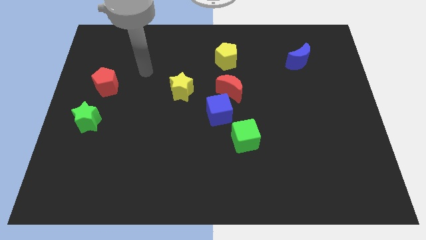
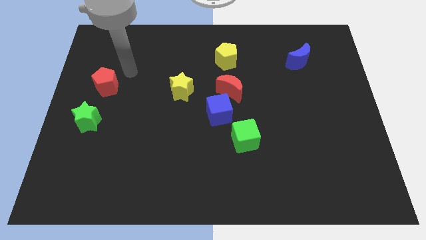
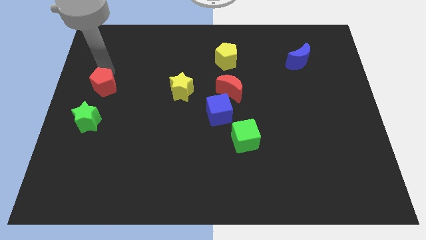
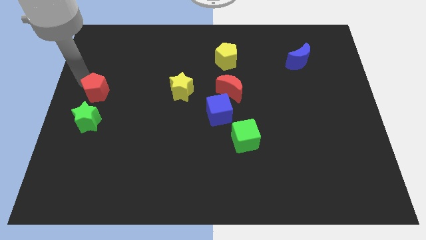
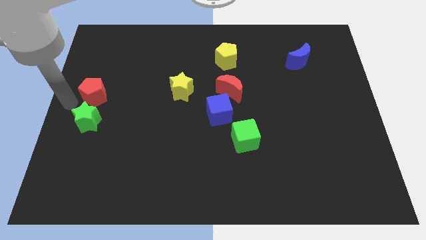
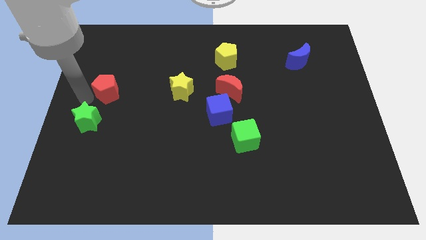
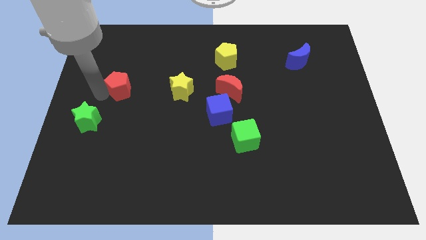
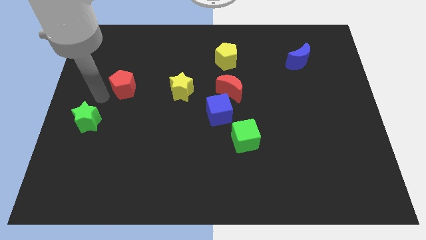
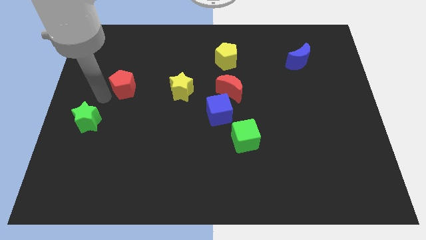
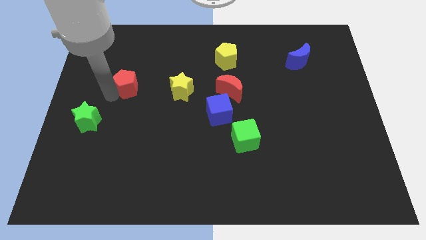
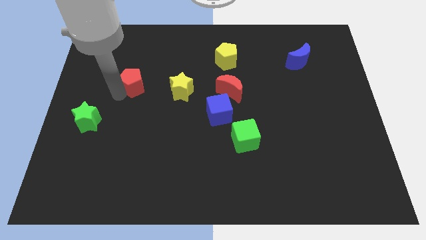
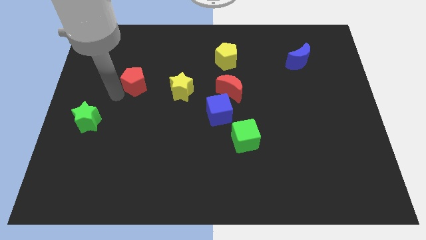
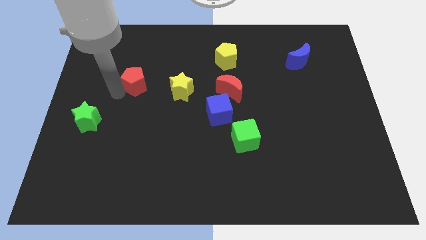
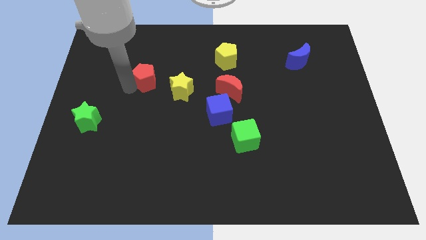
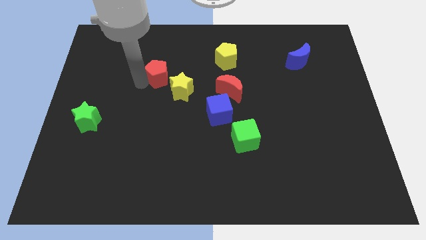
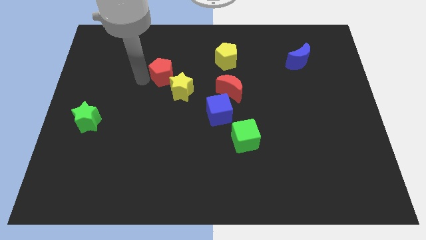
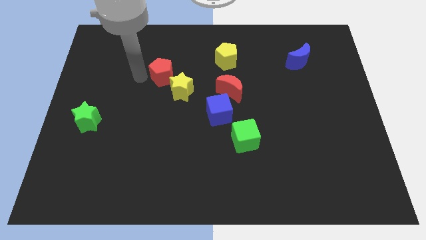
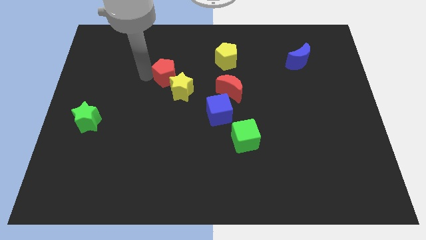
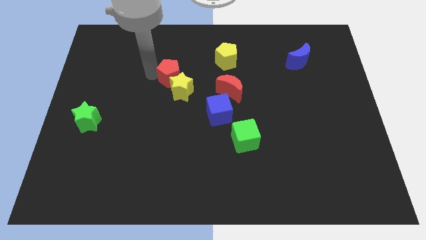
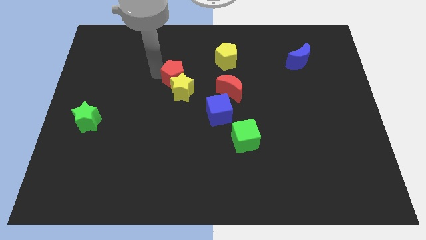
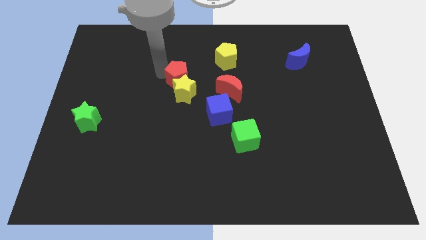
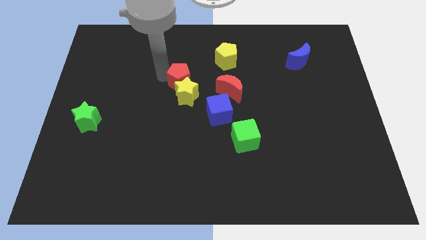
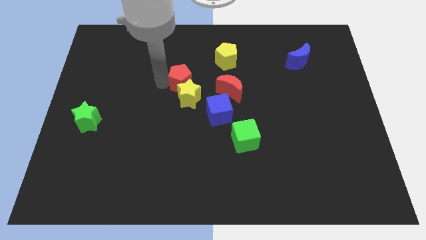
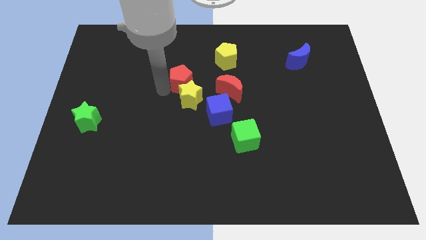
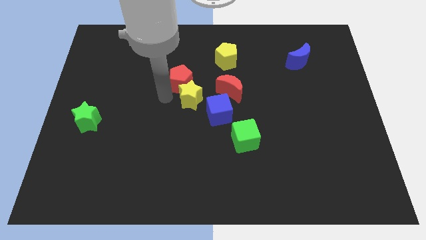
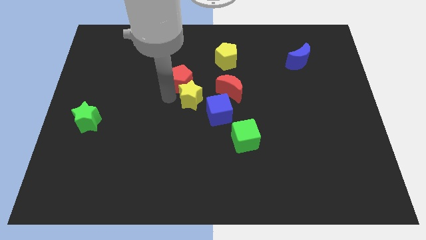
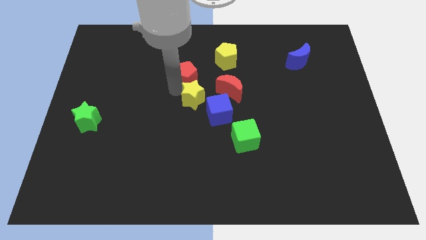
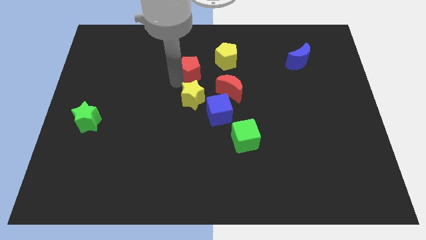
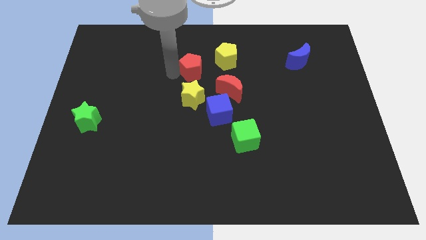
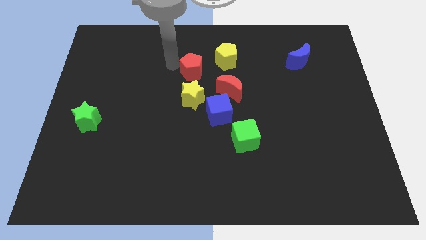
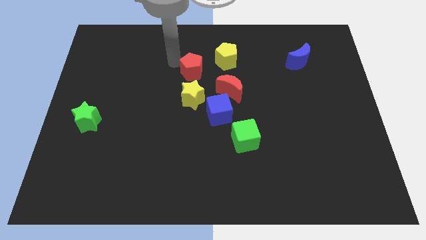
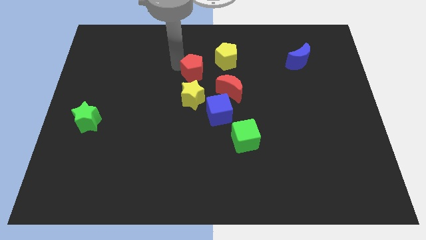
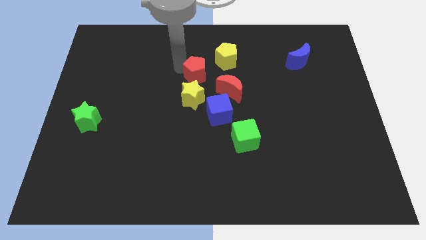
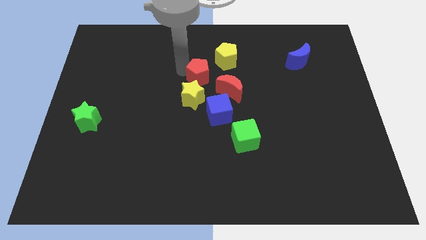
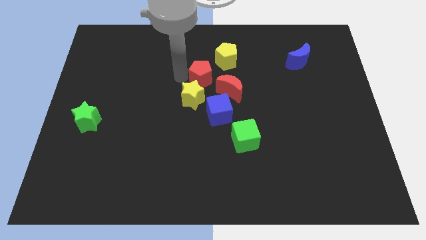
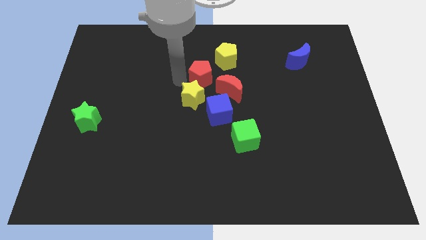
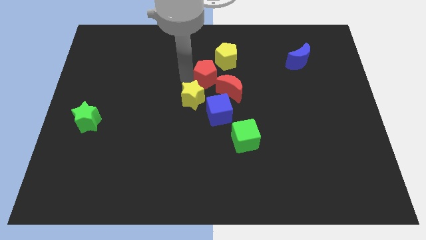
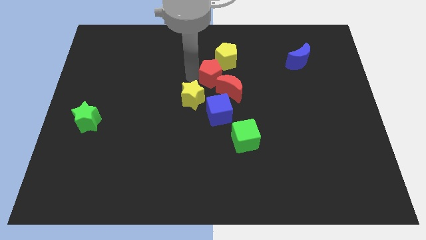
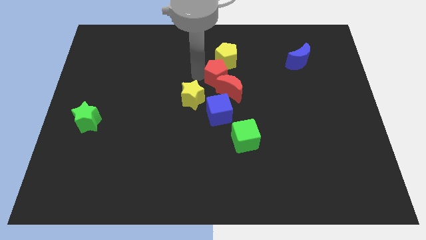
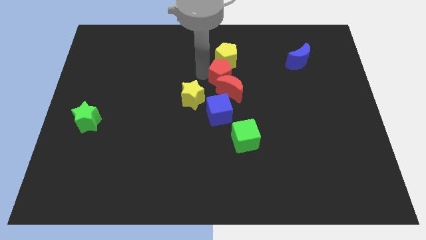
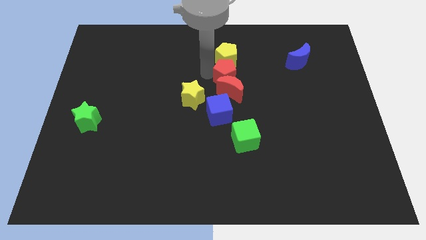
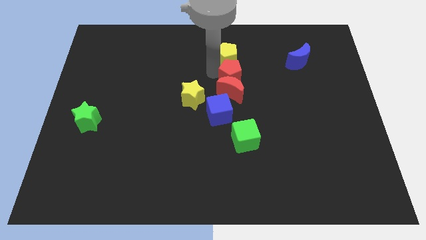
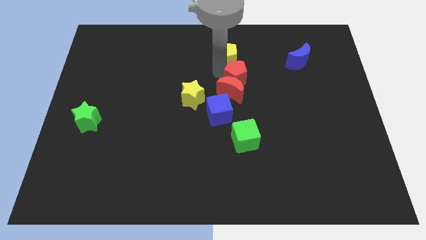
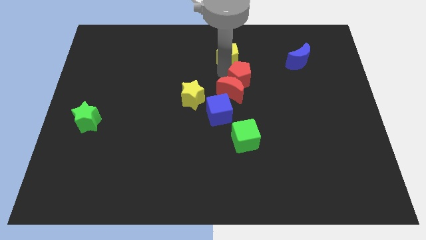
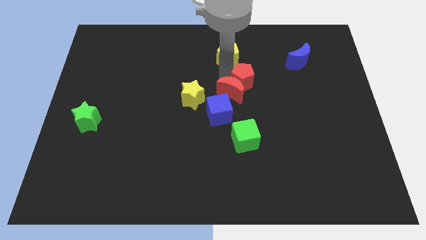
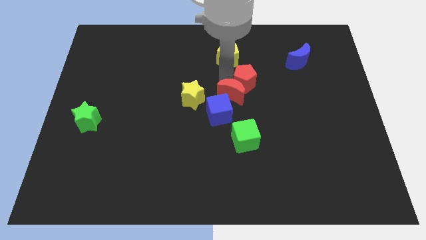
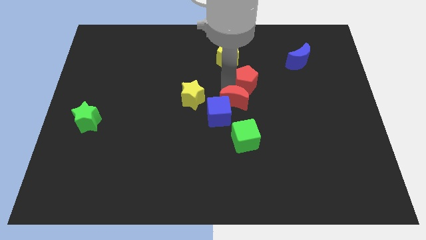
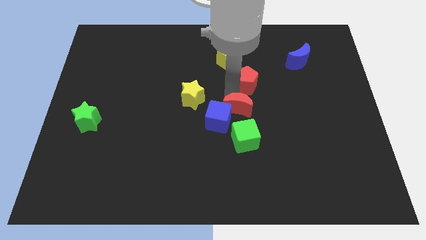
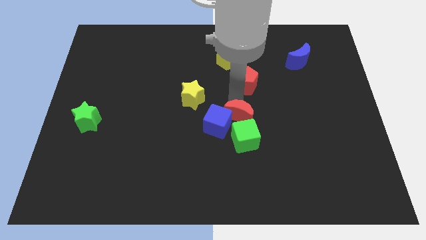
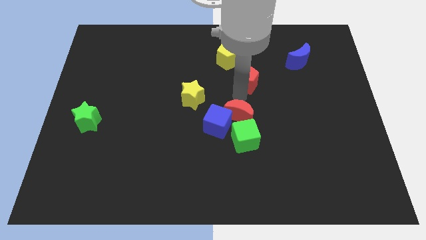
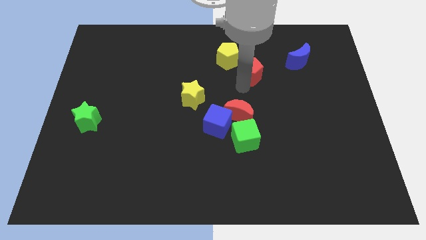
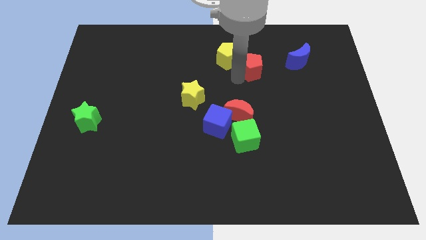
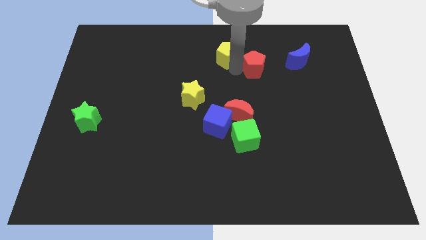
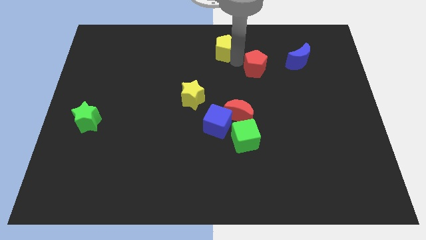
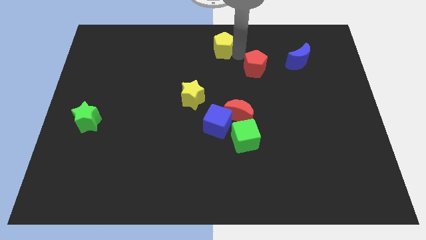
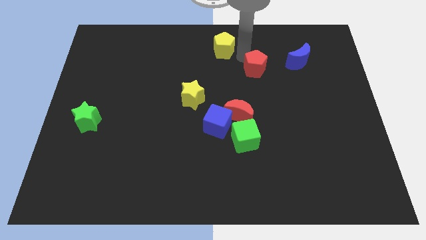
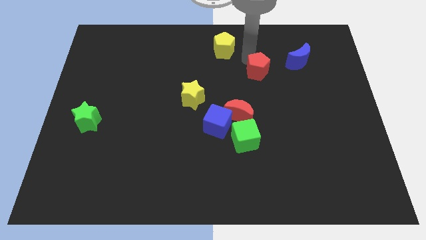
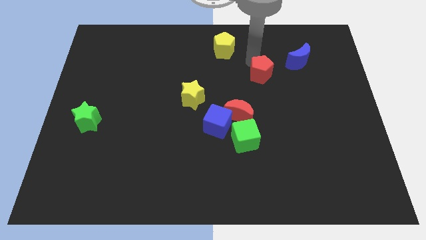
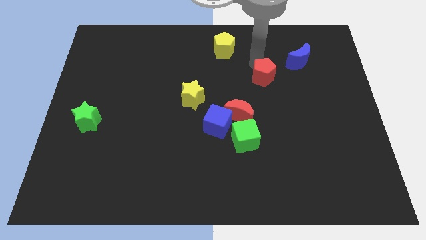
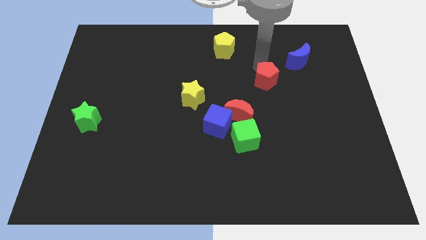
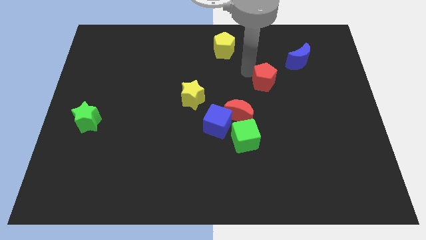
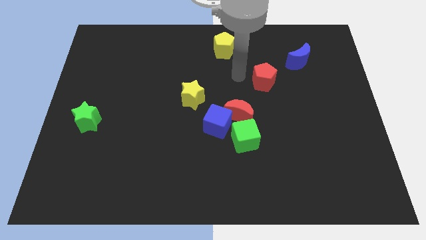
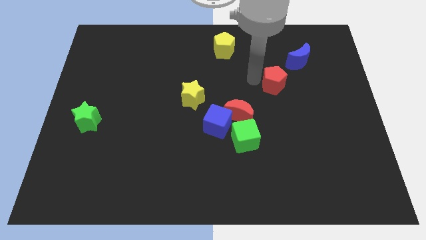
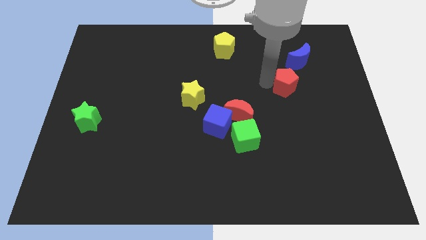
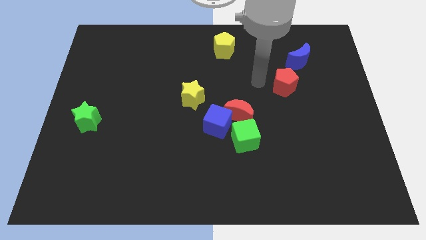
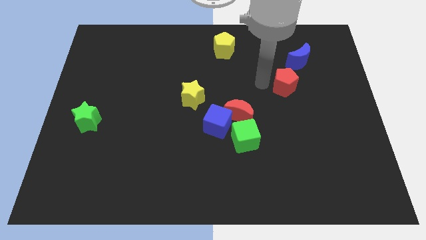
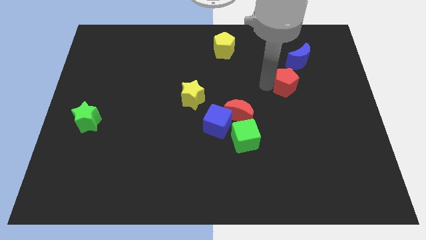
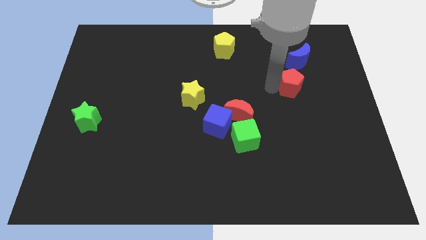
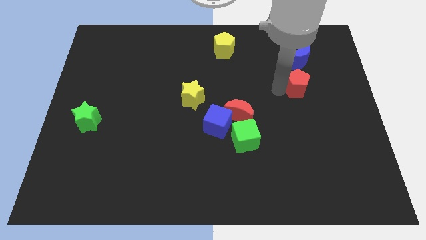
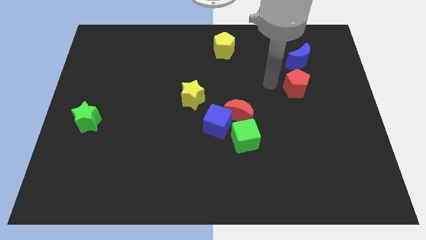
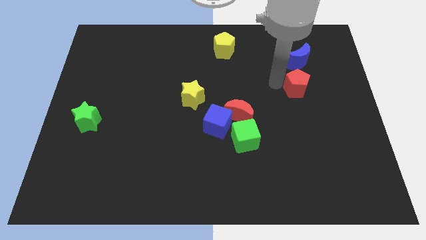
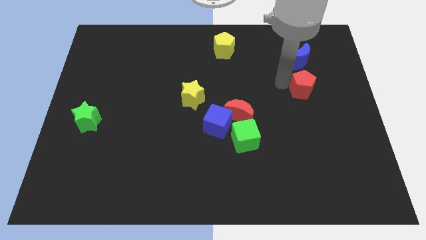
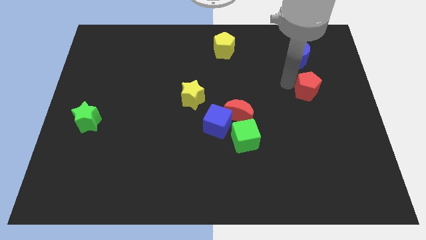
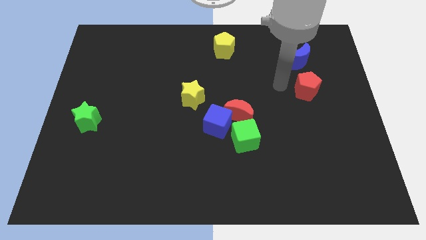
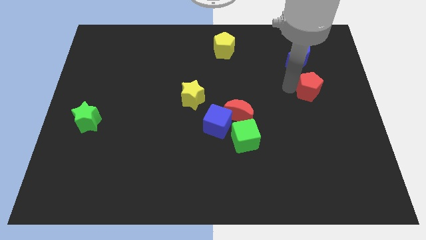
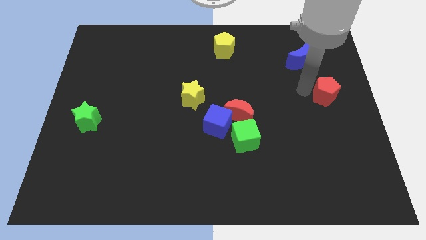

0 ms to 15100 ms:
push the red pentagon to the right side
